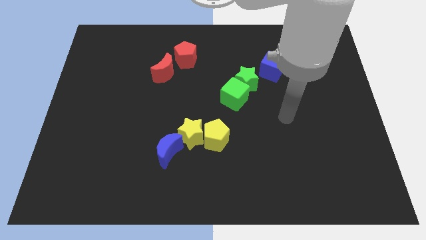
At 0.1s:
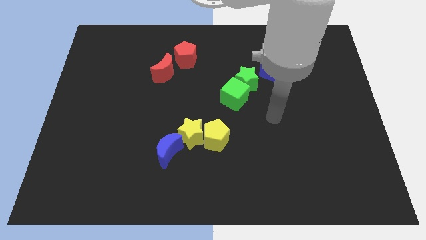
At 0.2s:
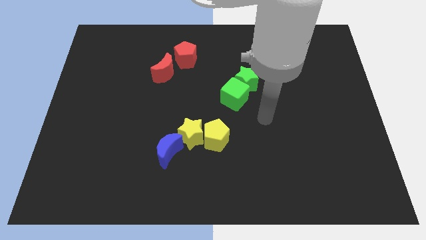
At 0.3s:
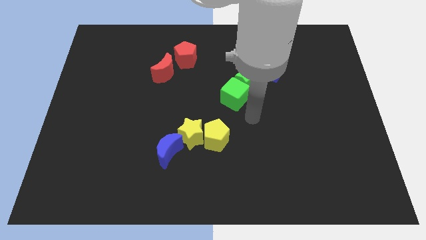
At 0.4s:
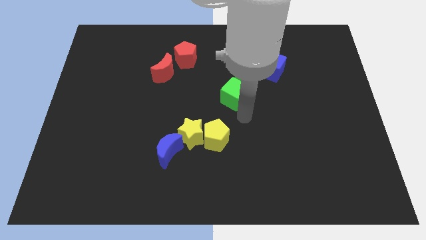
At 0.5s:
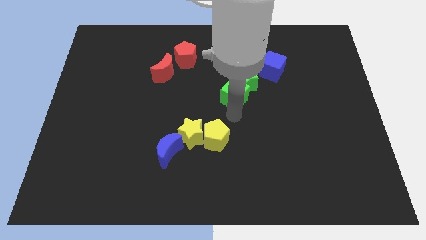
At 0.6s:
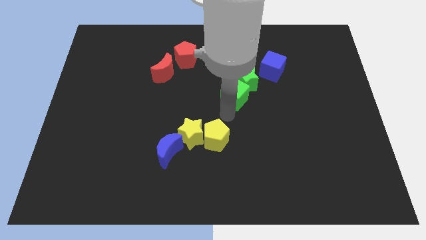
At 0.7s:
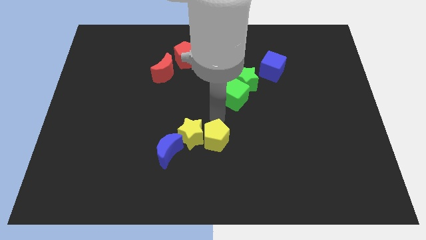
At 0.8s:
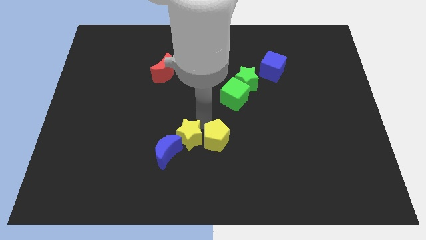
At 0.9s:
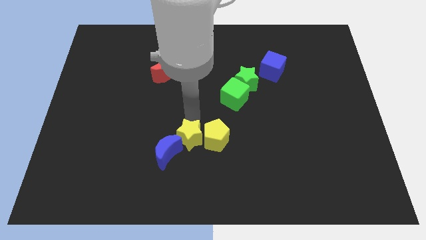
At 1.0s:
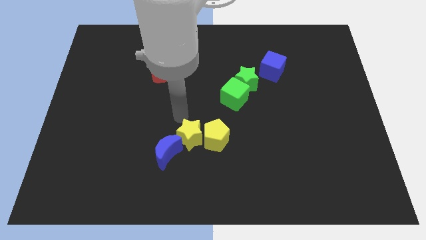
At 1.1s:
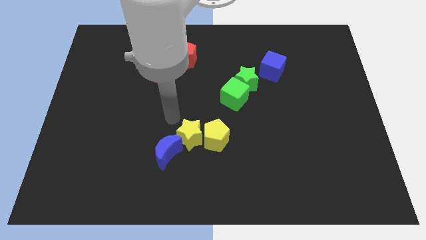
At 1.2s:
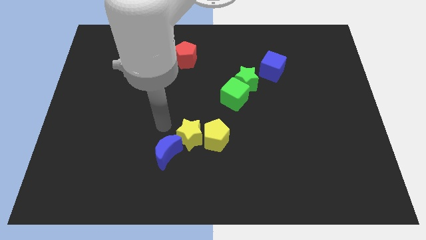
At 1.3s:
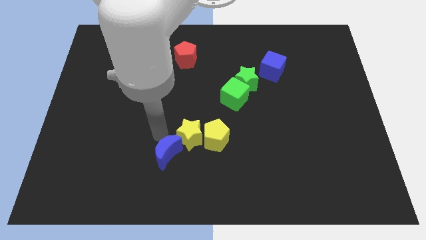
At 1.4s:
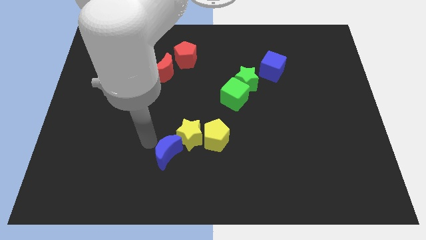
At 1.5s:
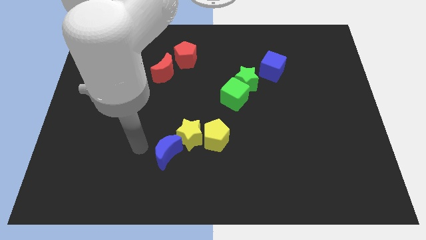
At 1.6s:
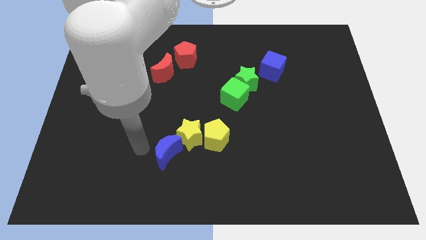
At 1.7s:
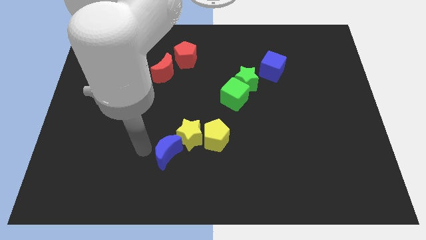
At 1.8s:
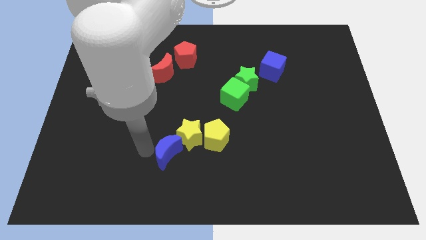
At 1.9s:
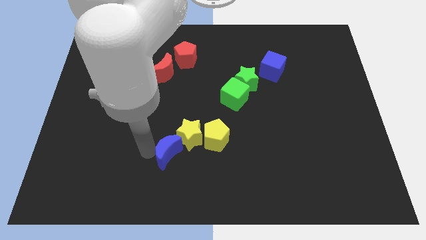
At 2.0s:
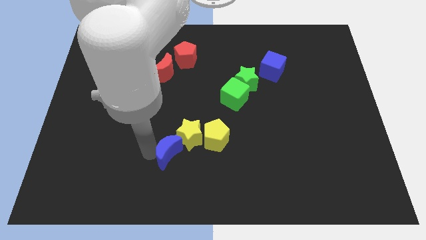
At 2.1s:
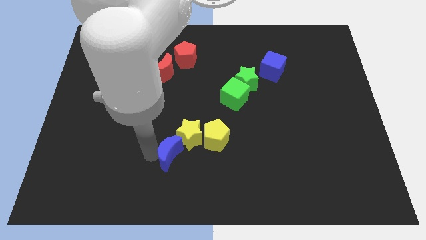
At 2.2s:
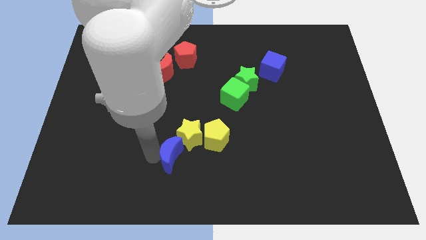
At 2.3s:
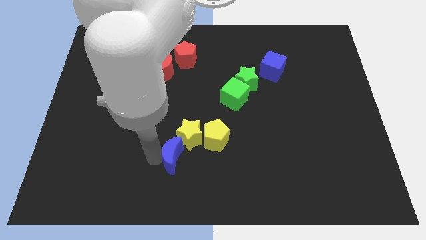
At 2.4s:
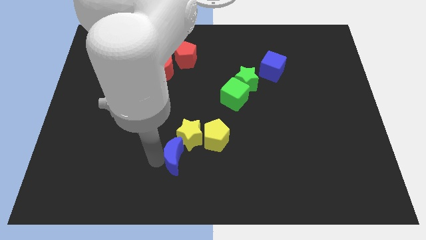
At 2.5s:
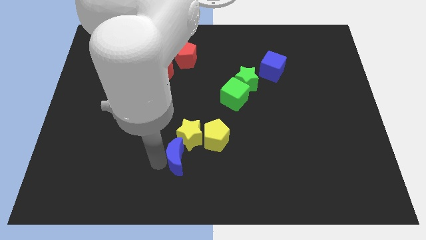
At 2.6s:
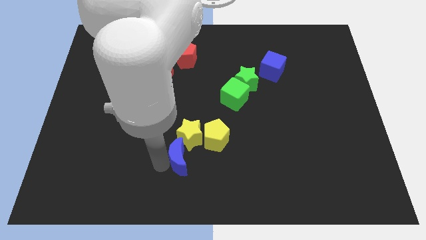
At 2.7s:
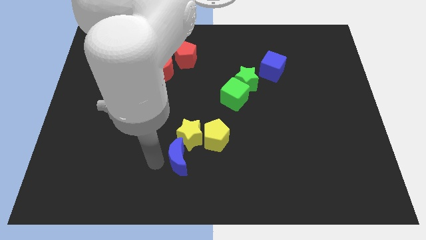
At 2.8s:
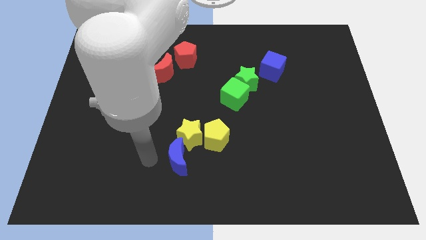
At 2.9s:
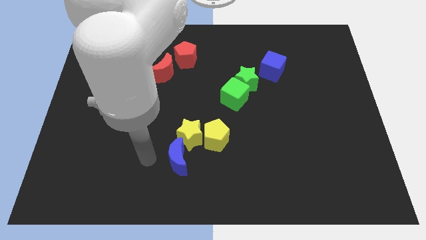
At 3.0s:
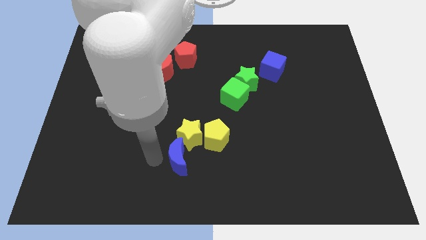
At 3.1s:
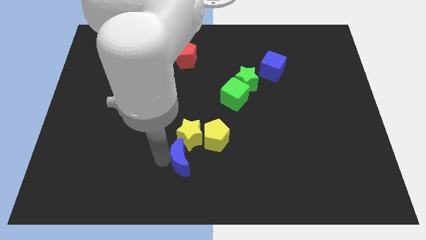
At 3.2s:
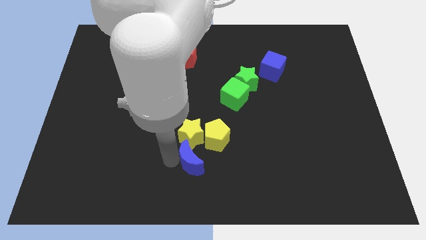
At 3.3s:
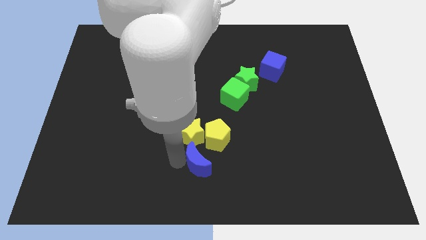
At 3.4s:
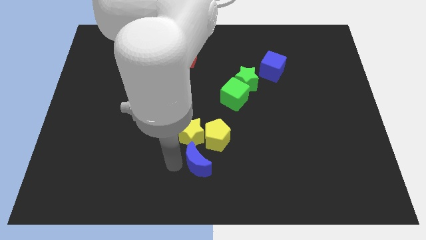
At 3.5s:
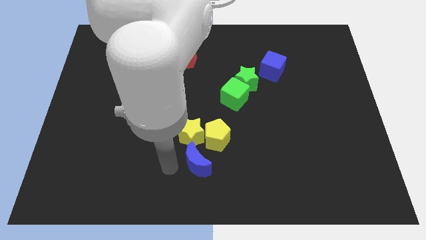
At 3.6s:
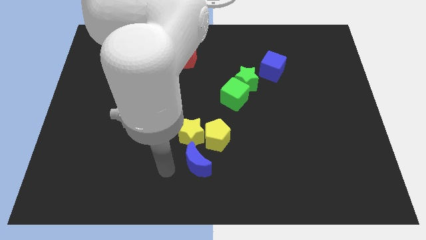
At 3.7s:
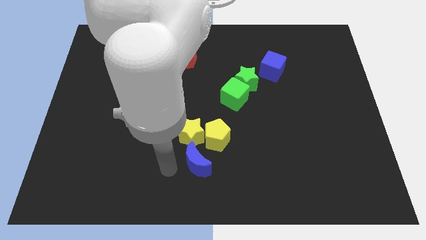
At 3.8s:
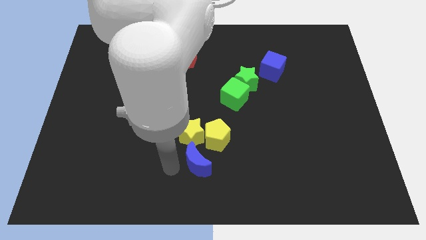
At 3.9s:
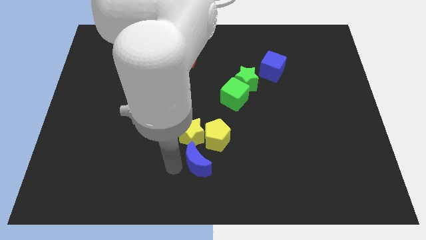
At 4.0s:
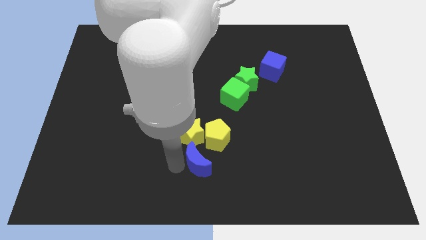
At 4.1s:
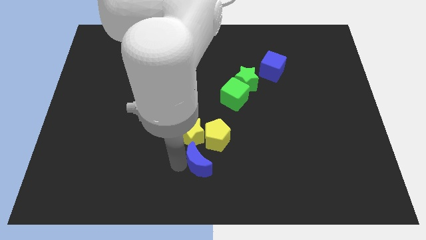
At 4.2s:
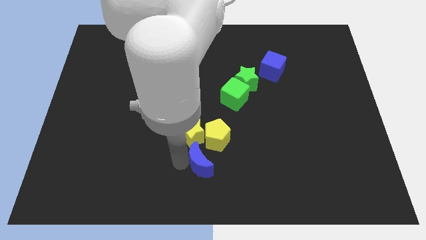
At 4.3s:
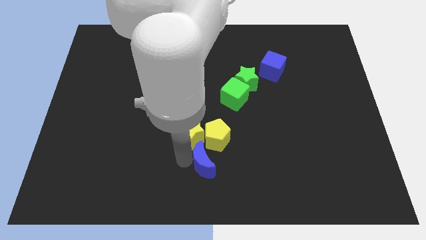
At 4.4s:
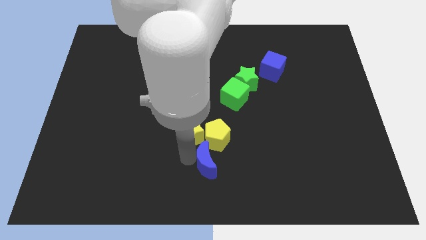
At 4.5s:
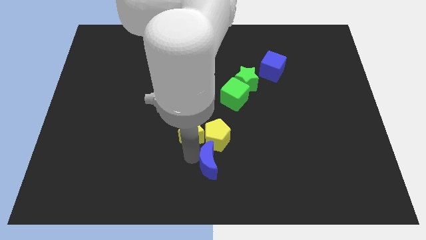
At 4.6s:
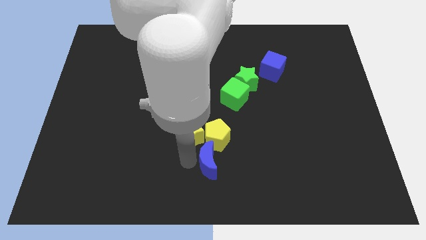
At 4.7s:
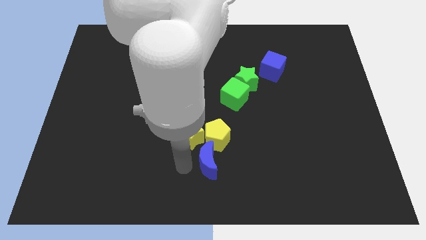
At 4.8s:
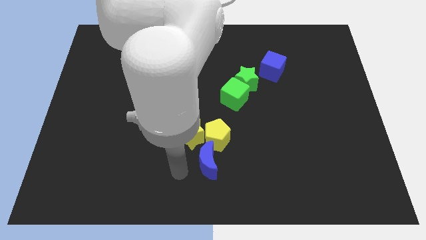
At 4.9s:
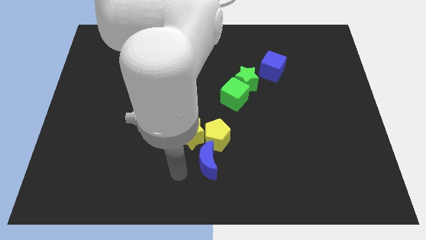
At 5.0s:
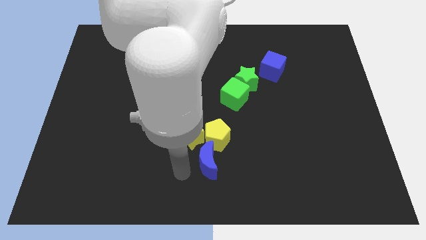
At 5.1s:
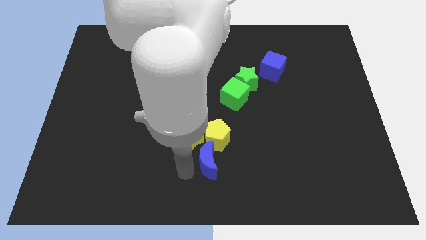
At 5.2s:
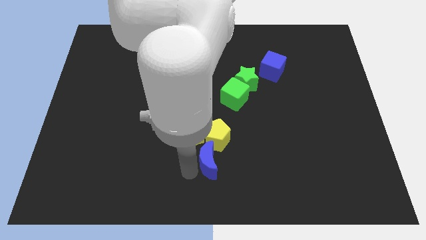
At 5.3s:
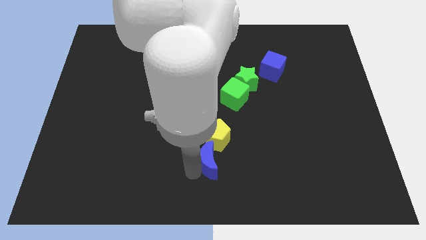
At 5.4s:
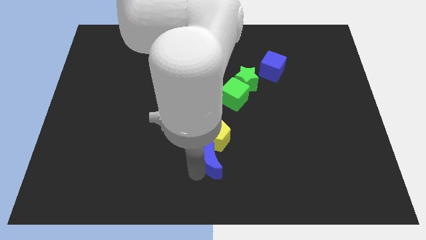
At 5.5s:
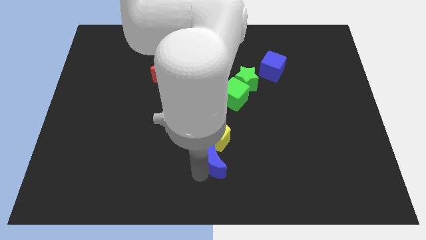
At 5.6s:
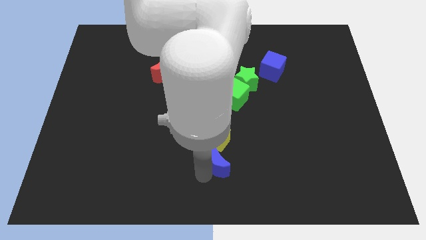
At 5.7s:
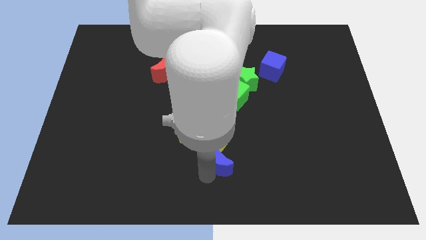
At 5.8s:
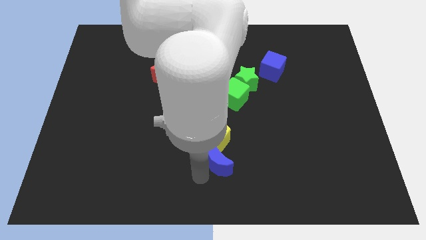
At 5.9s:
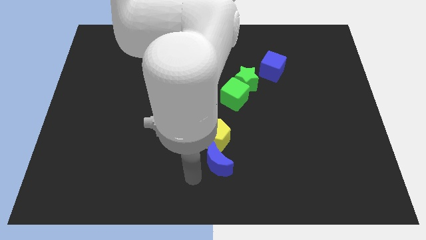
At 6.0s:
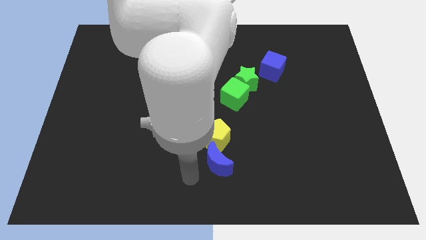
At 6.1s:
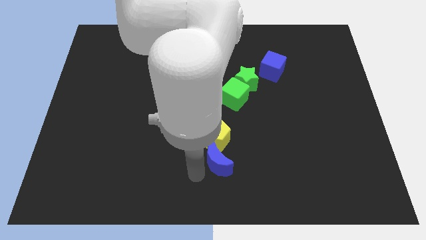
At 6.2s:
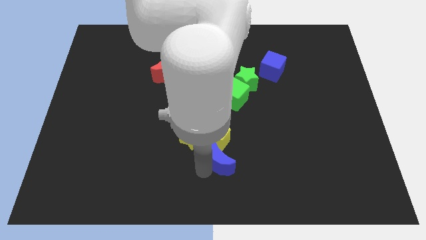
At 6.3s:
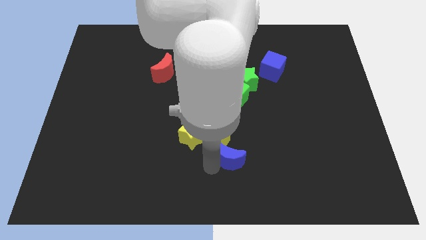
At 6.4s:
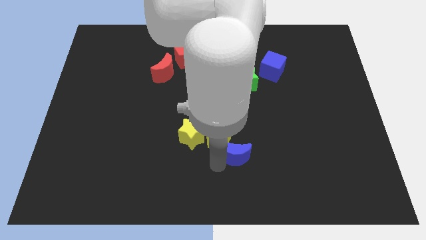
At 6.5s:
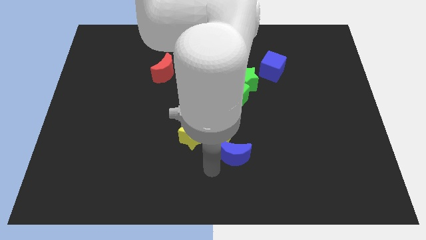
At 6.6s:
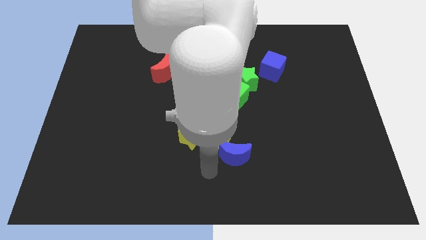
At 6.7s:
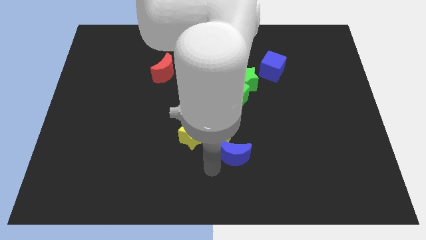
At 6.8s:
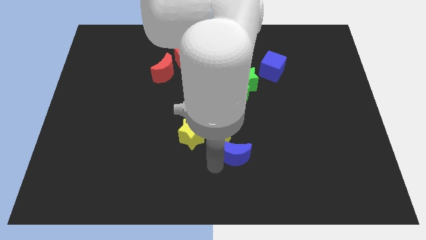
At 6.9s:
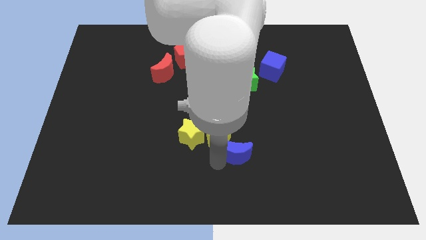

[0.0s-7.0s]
push the blue moon just right of the yellow pentagon
